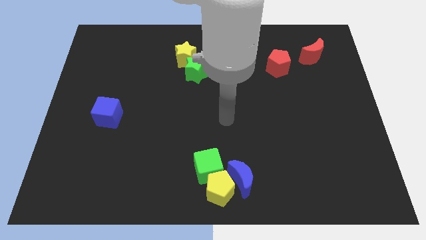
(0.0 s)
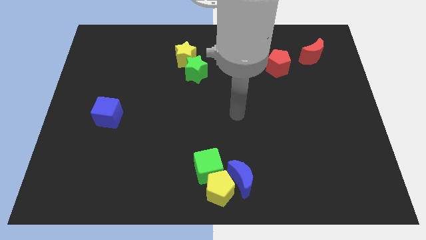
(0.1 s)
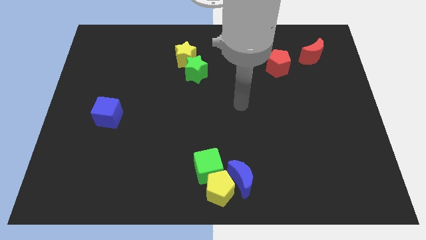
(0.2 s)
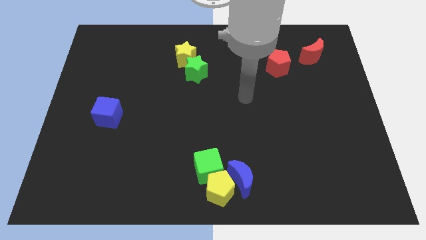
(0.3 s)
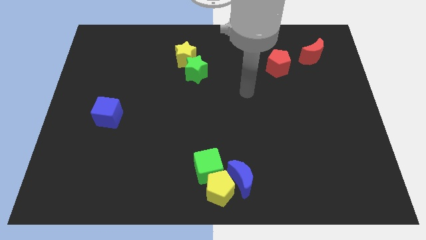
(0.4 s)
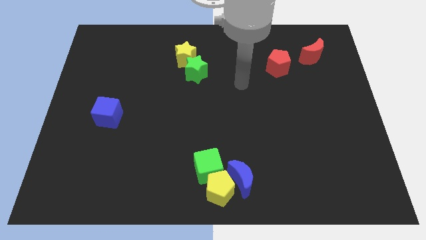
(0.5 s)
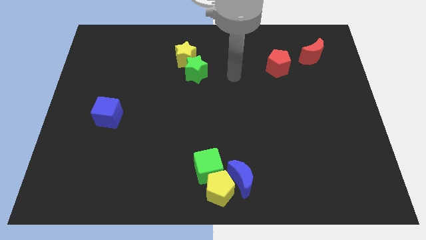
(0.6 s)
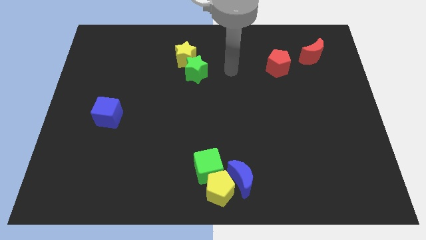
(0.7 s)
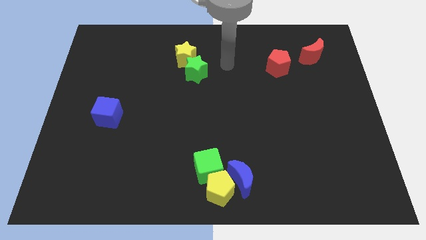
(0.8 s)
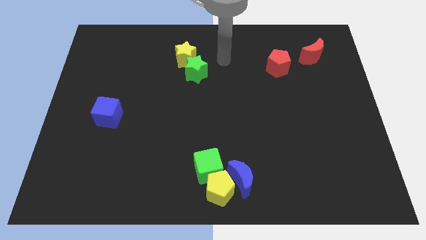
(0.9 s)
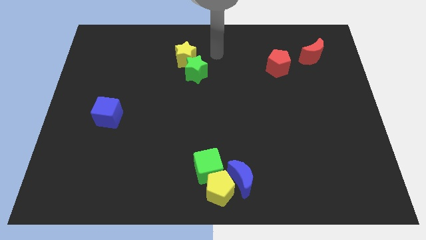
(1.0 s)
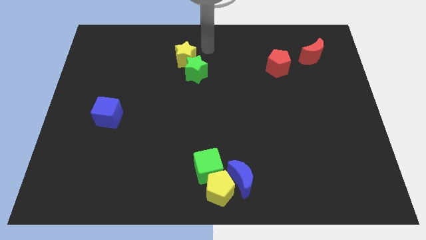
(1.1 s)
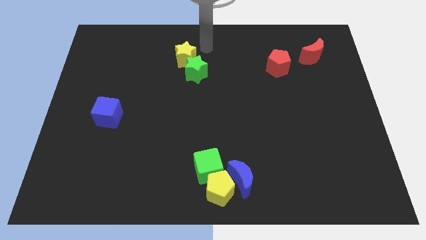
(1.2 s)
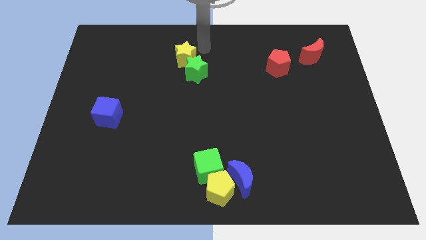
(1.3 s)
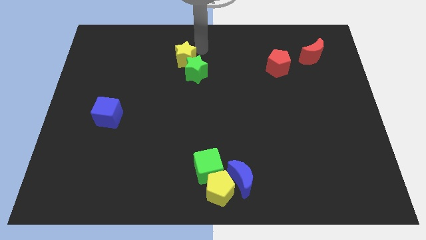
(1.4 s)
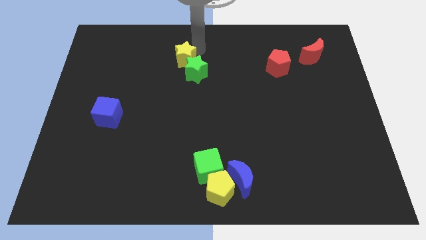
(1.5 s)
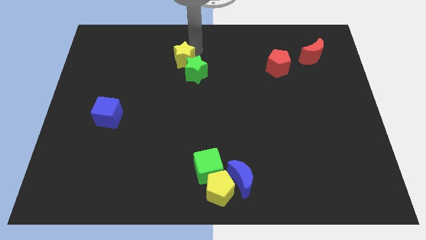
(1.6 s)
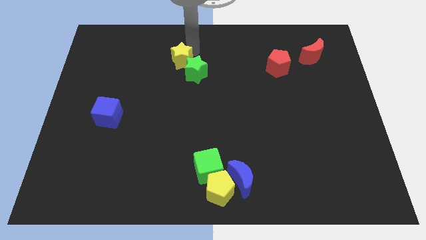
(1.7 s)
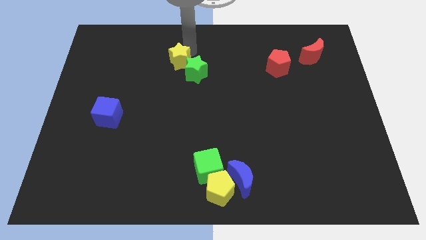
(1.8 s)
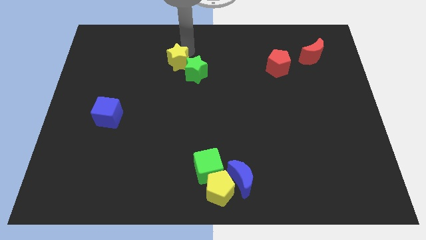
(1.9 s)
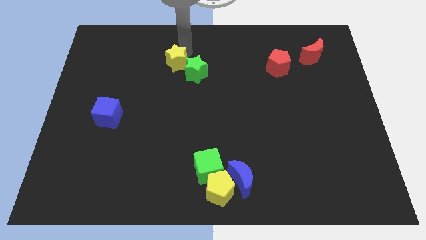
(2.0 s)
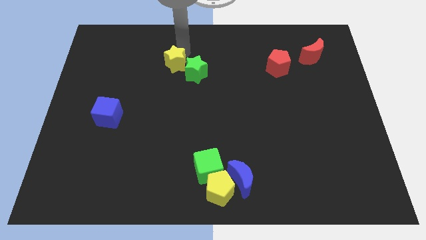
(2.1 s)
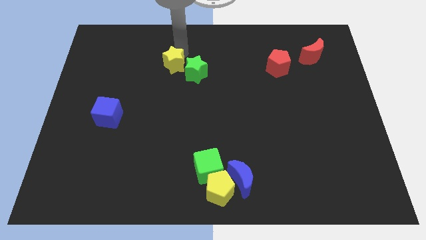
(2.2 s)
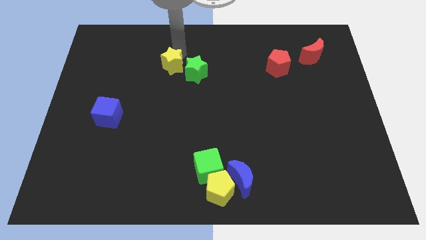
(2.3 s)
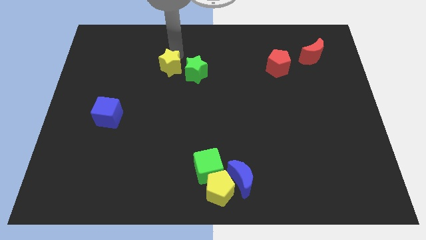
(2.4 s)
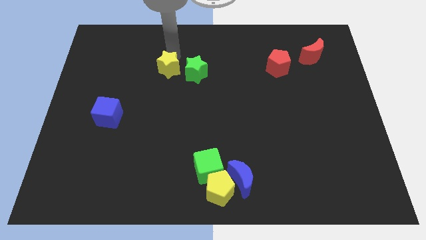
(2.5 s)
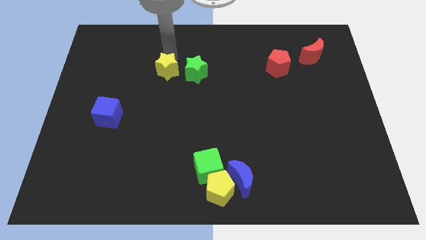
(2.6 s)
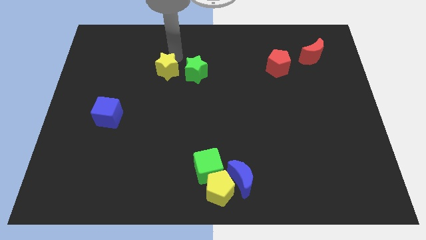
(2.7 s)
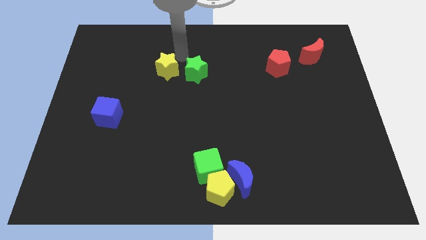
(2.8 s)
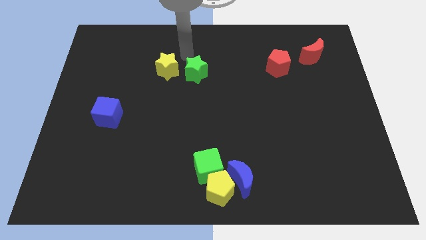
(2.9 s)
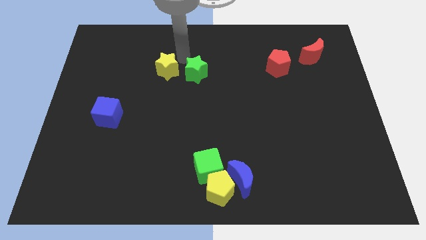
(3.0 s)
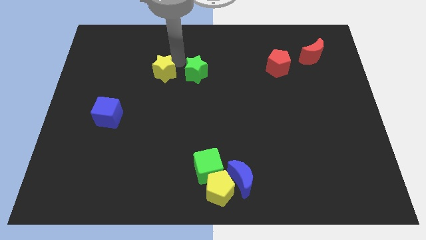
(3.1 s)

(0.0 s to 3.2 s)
slide the yellow star a little diagonally down and to the left

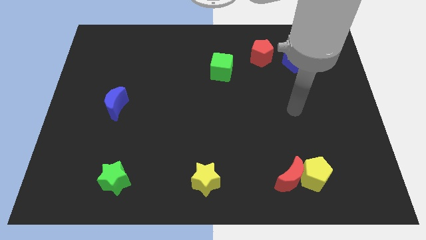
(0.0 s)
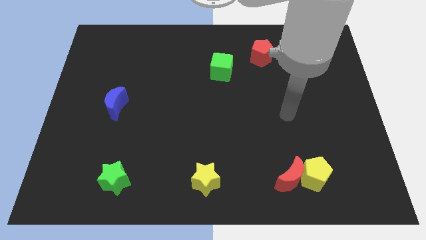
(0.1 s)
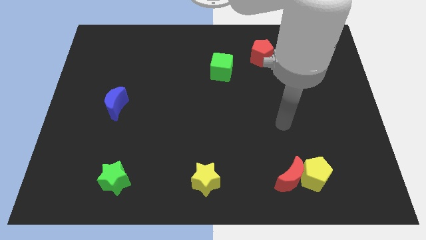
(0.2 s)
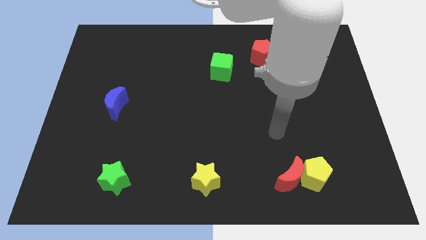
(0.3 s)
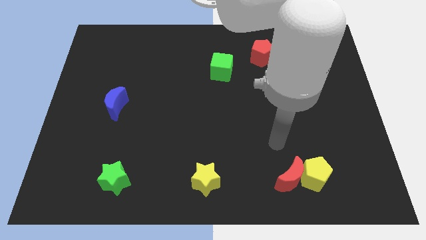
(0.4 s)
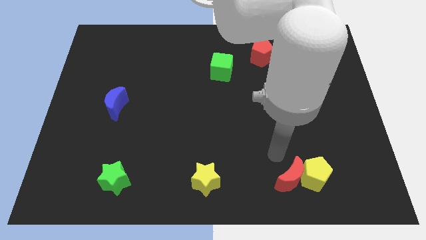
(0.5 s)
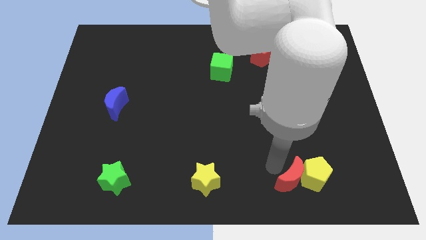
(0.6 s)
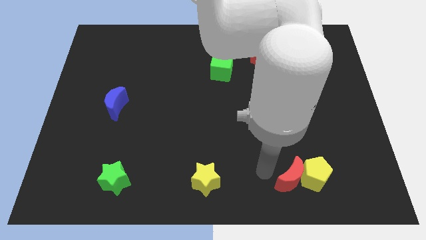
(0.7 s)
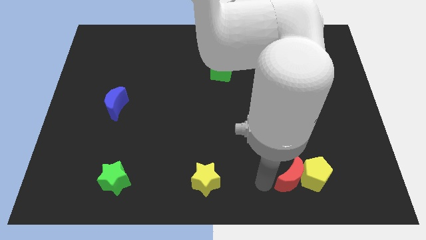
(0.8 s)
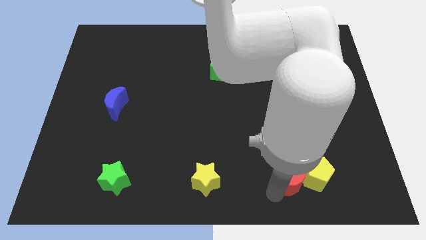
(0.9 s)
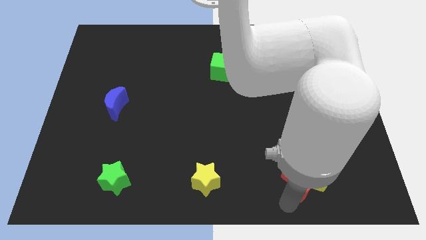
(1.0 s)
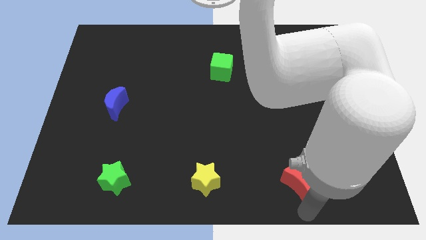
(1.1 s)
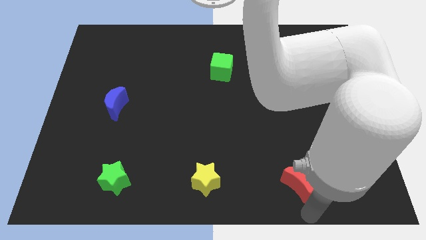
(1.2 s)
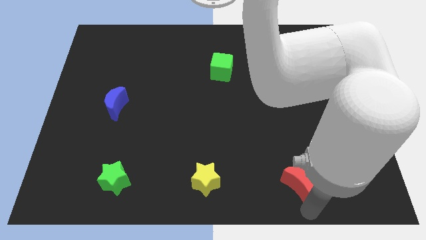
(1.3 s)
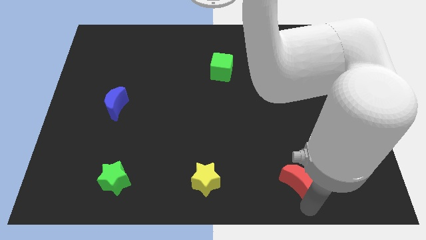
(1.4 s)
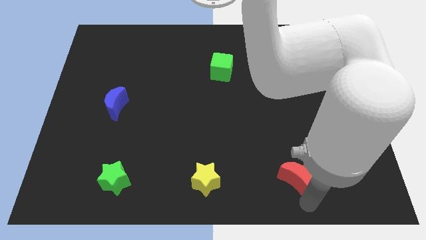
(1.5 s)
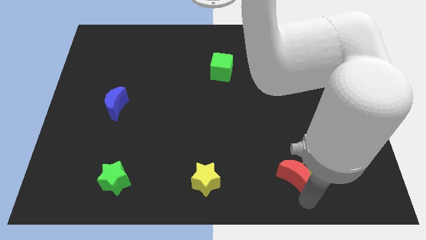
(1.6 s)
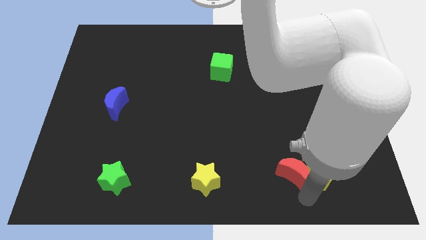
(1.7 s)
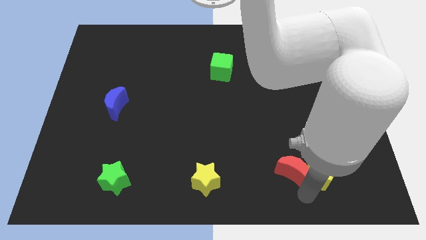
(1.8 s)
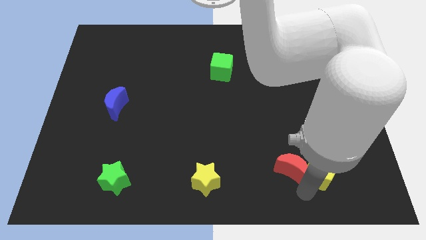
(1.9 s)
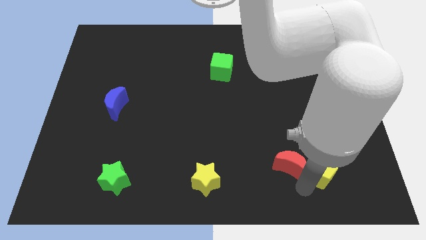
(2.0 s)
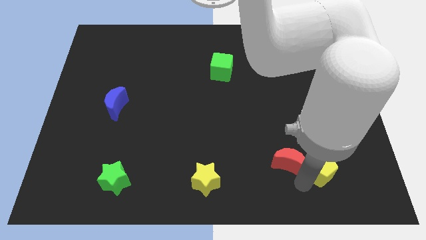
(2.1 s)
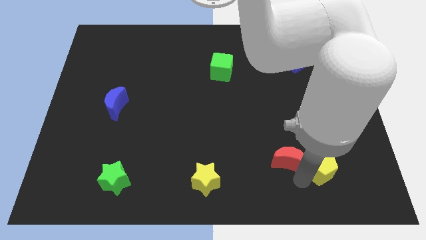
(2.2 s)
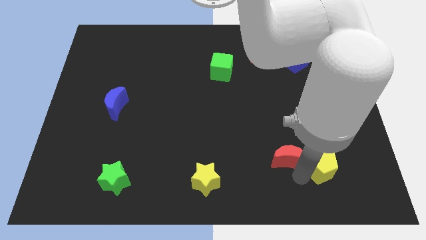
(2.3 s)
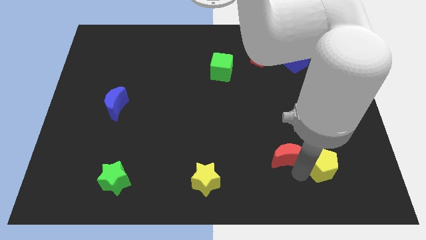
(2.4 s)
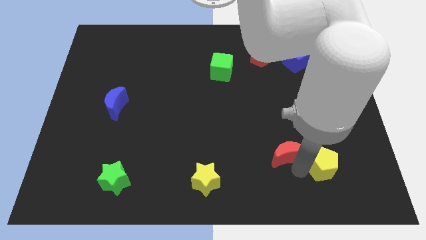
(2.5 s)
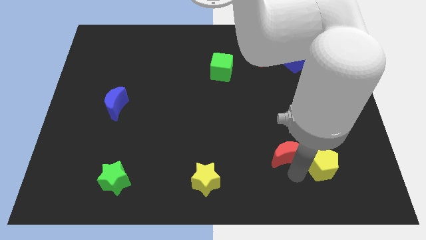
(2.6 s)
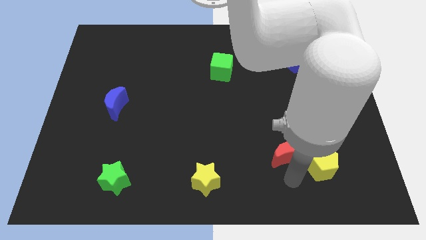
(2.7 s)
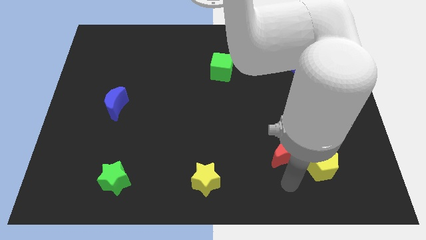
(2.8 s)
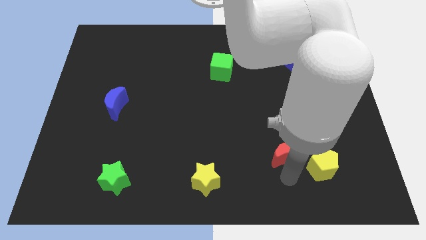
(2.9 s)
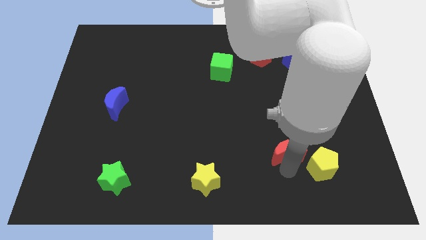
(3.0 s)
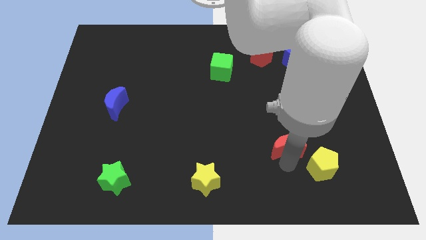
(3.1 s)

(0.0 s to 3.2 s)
slide the red moon a bit up

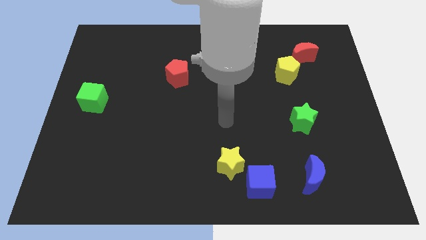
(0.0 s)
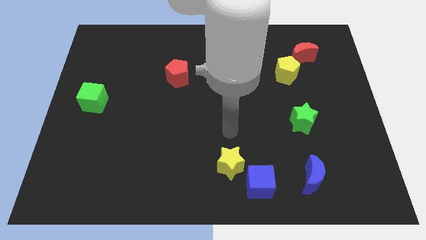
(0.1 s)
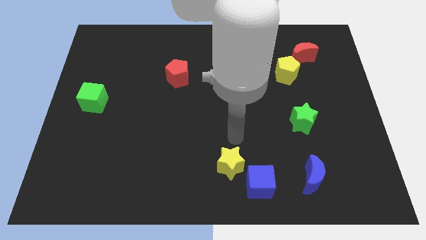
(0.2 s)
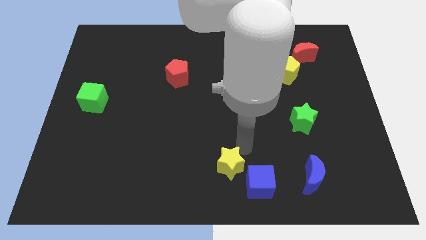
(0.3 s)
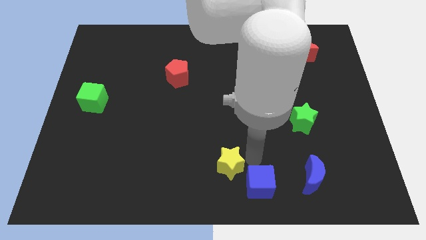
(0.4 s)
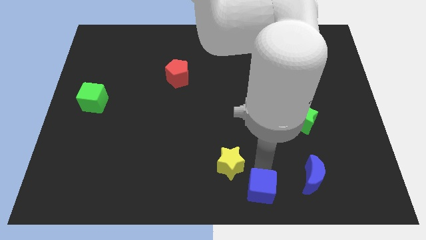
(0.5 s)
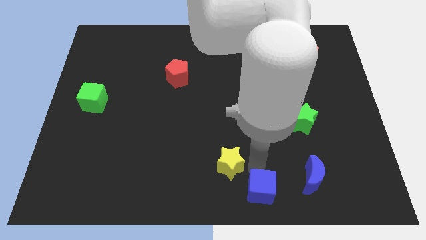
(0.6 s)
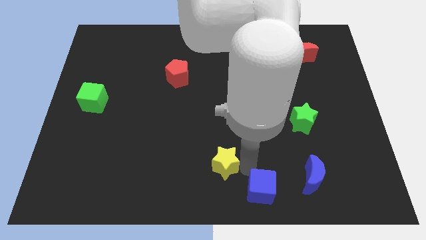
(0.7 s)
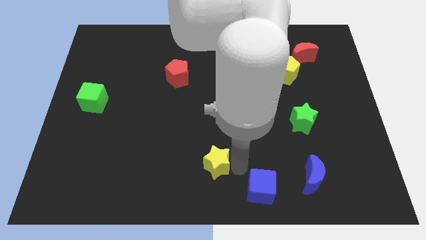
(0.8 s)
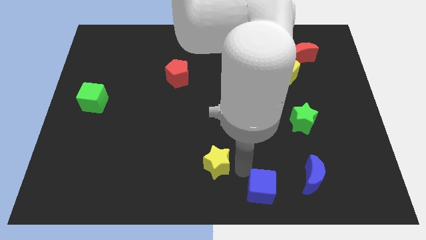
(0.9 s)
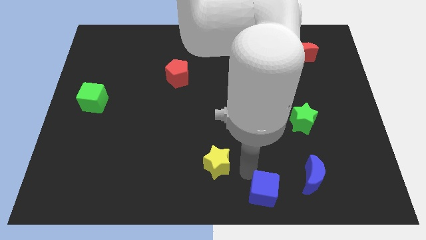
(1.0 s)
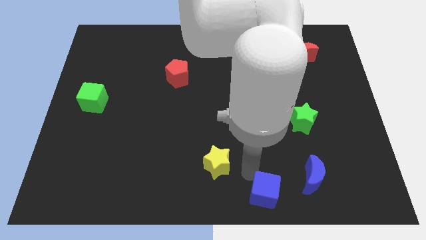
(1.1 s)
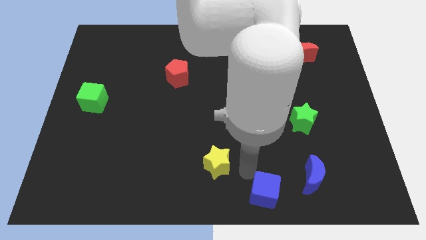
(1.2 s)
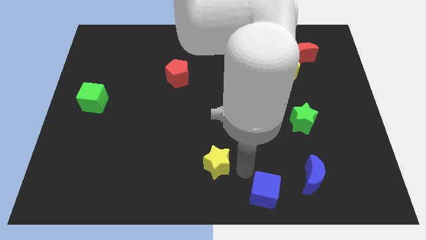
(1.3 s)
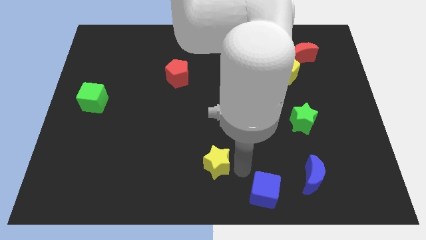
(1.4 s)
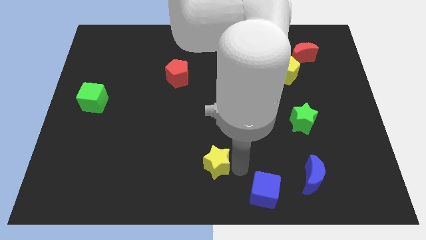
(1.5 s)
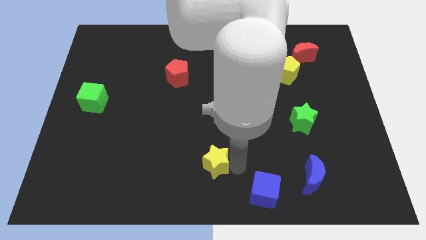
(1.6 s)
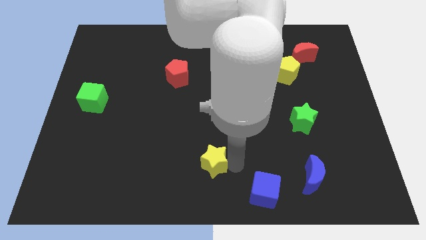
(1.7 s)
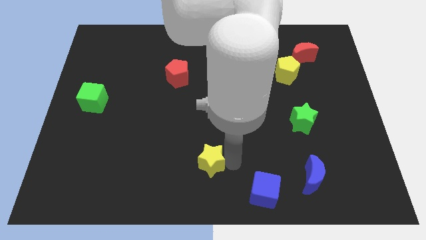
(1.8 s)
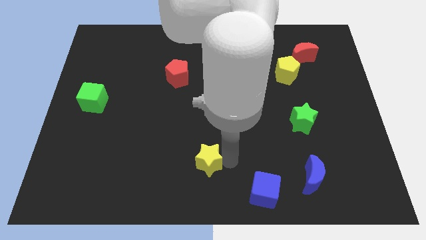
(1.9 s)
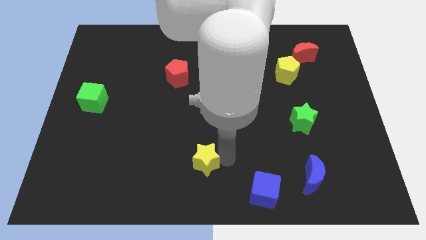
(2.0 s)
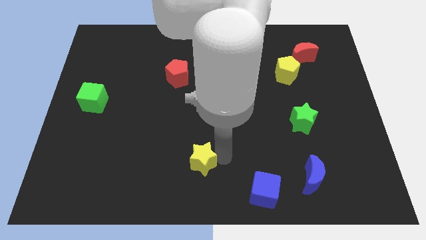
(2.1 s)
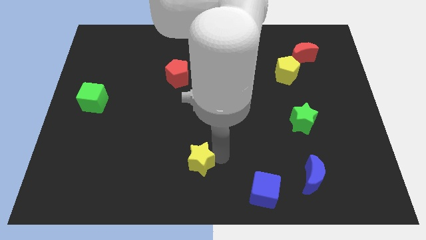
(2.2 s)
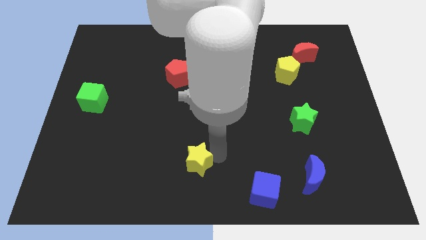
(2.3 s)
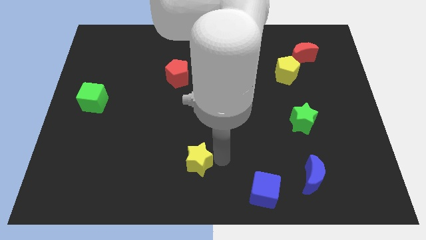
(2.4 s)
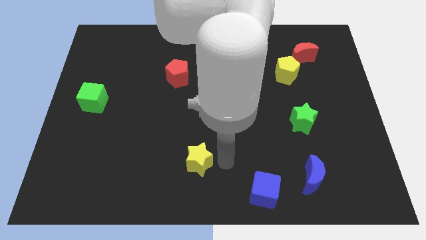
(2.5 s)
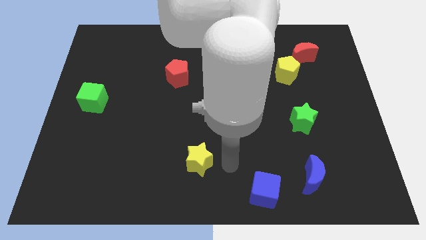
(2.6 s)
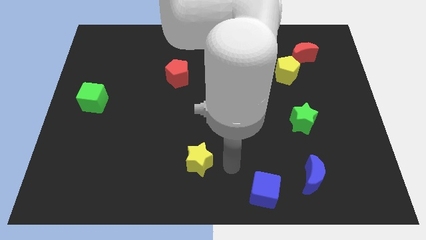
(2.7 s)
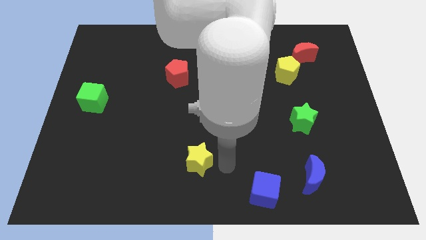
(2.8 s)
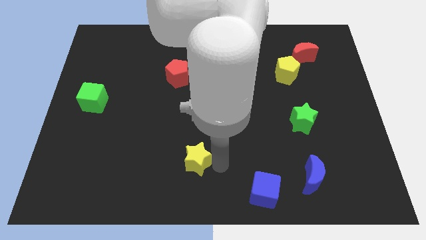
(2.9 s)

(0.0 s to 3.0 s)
push the yellow star a bit left
